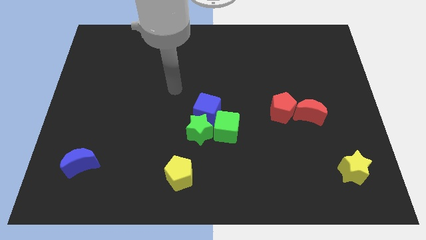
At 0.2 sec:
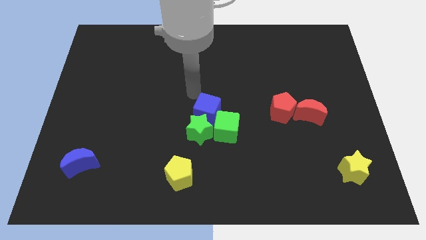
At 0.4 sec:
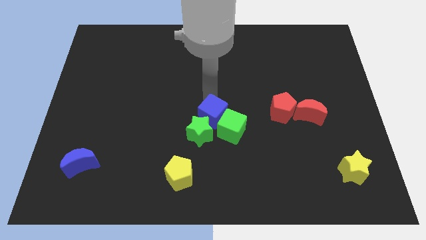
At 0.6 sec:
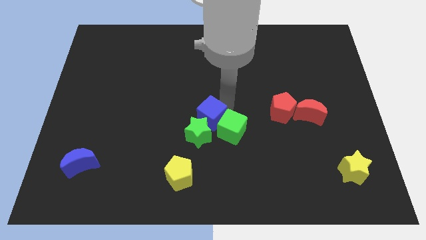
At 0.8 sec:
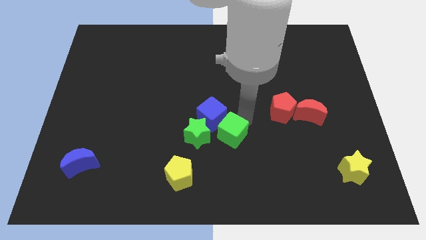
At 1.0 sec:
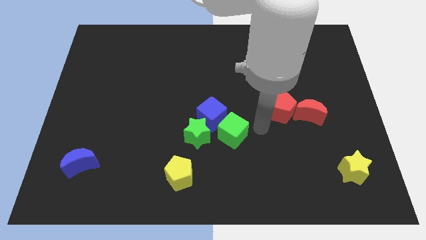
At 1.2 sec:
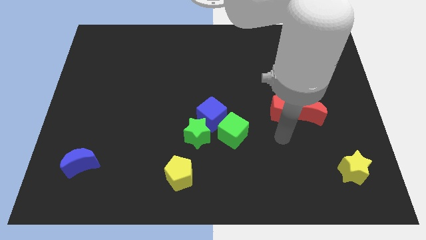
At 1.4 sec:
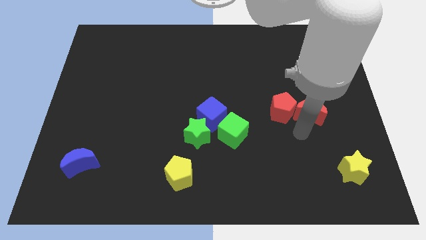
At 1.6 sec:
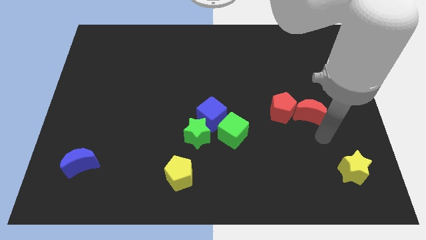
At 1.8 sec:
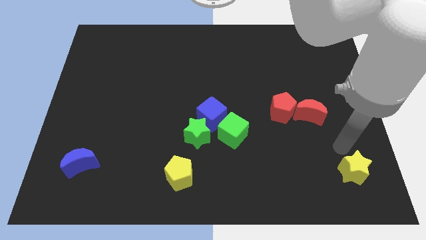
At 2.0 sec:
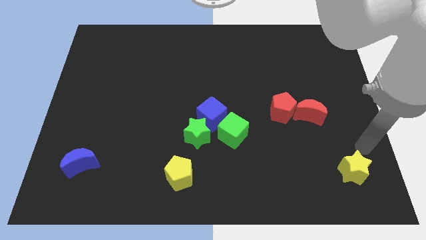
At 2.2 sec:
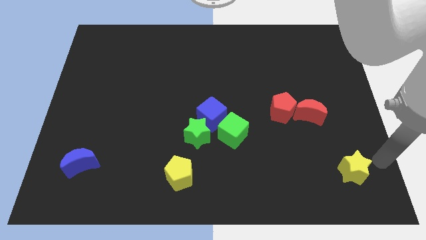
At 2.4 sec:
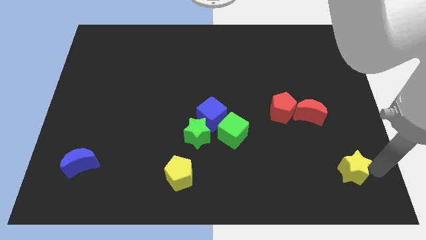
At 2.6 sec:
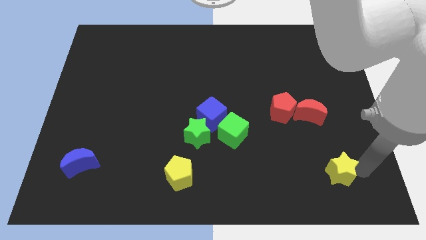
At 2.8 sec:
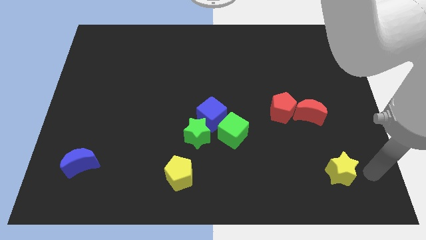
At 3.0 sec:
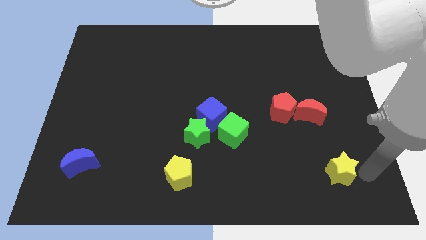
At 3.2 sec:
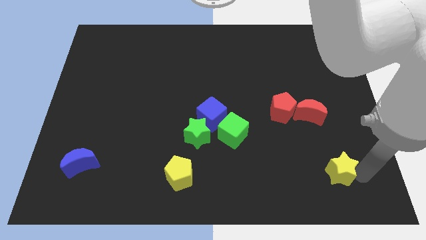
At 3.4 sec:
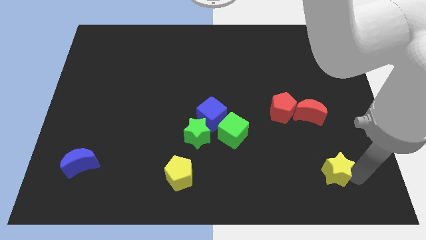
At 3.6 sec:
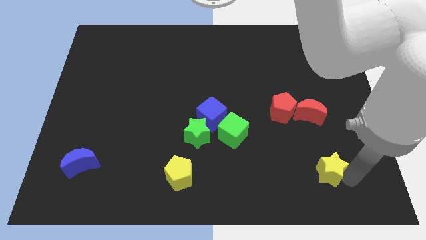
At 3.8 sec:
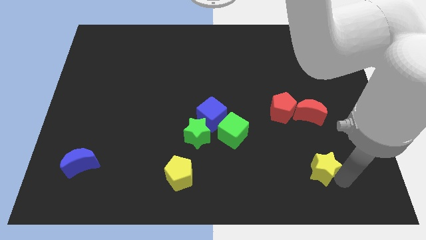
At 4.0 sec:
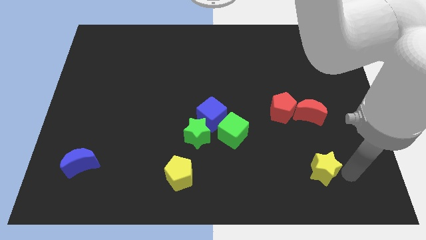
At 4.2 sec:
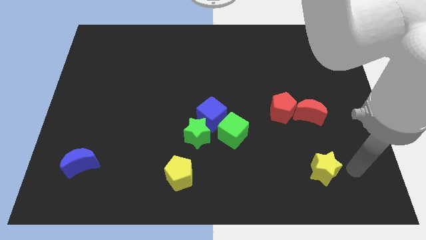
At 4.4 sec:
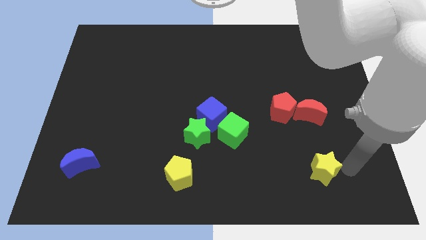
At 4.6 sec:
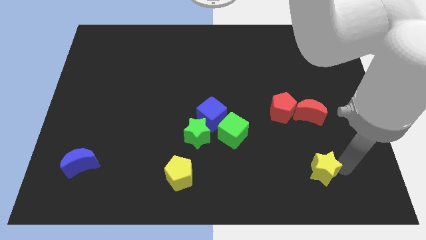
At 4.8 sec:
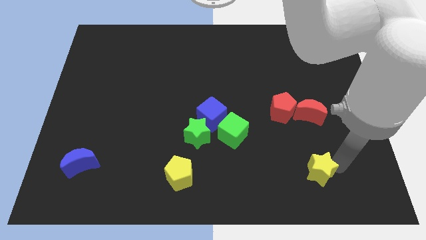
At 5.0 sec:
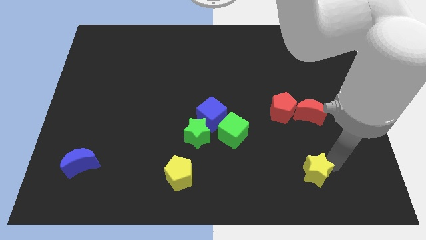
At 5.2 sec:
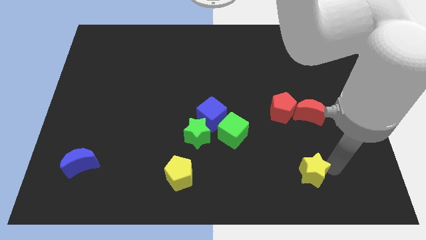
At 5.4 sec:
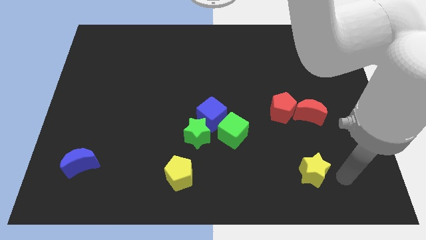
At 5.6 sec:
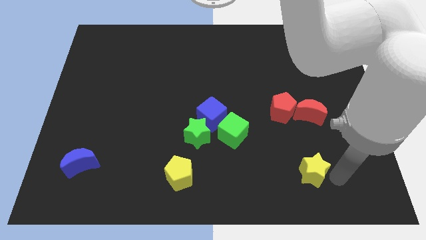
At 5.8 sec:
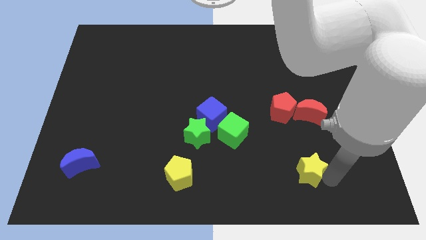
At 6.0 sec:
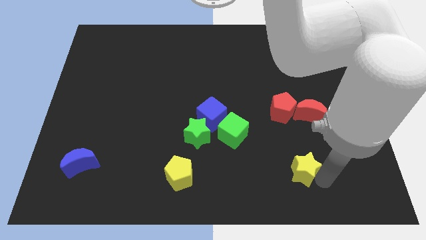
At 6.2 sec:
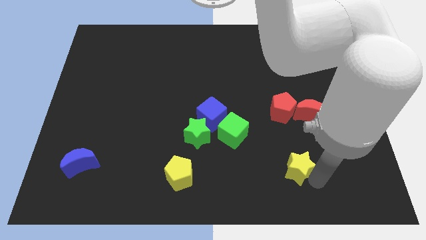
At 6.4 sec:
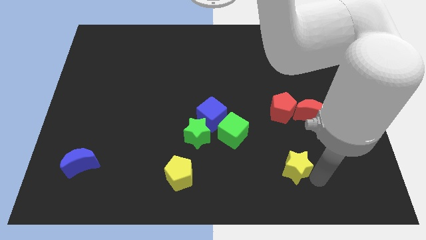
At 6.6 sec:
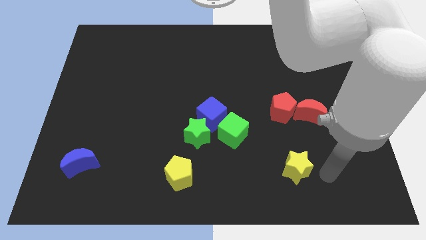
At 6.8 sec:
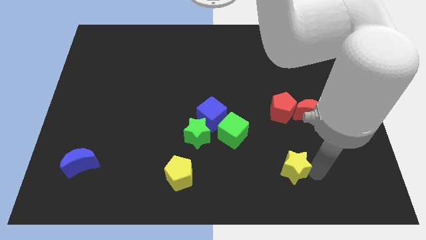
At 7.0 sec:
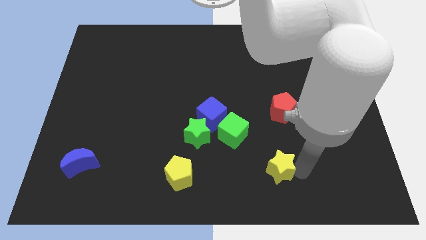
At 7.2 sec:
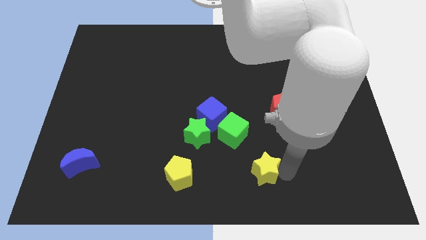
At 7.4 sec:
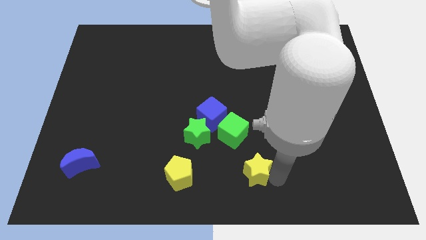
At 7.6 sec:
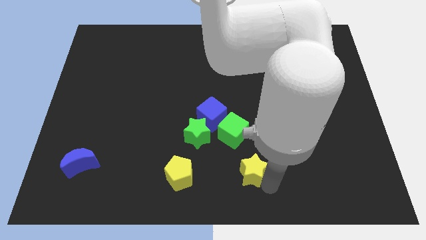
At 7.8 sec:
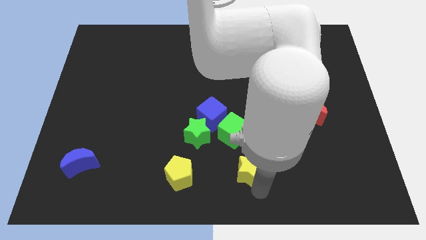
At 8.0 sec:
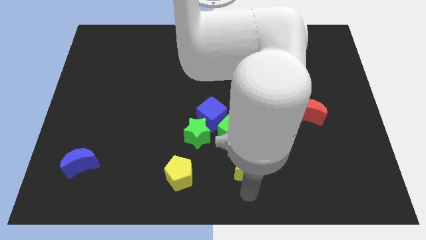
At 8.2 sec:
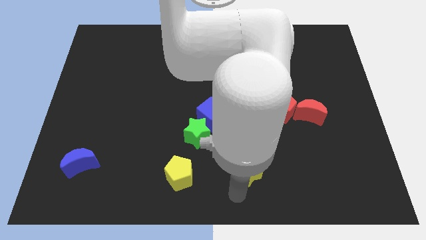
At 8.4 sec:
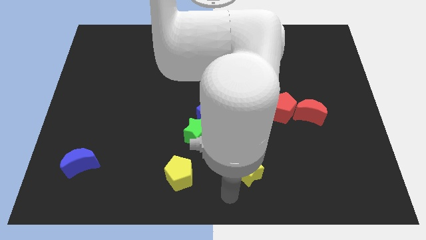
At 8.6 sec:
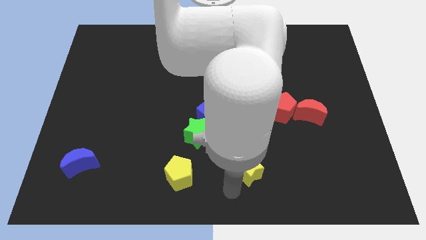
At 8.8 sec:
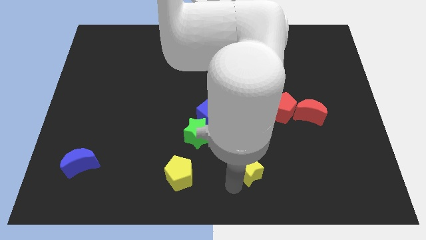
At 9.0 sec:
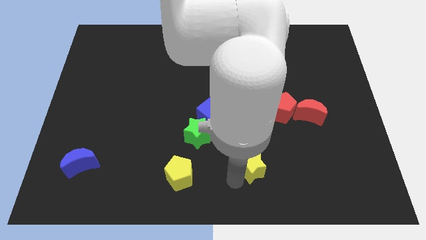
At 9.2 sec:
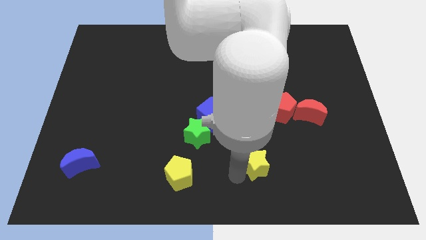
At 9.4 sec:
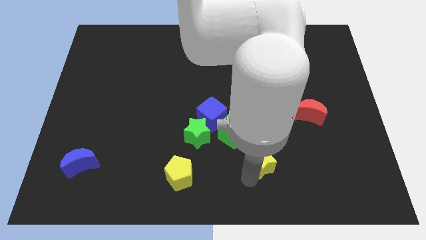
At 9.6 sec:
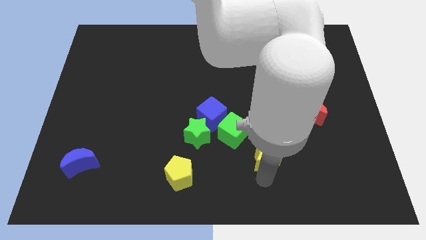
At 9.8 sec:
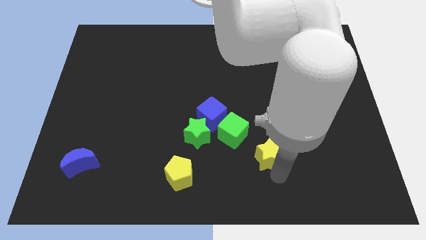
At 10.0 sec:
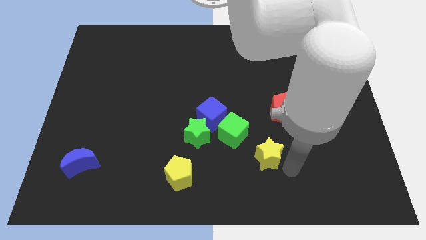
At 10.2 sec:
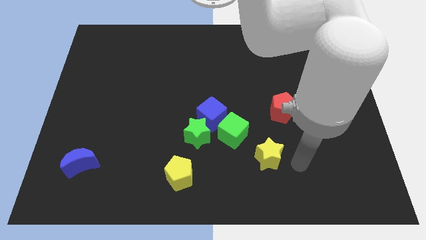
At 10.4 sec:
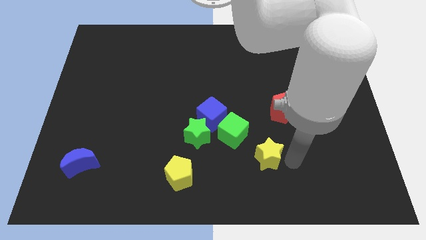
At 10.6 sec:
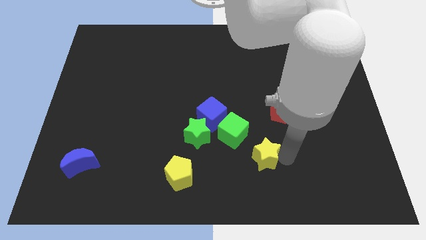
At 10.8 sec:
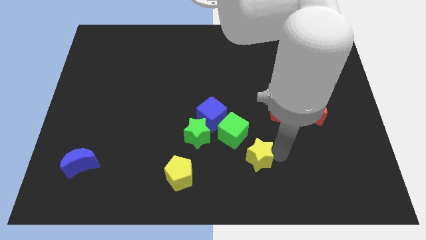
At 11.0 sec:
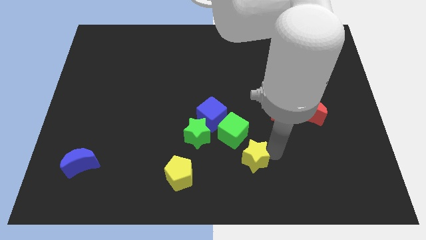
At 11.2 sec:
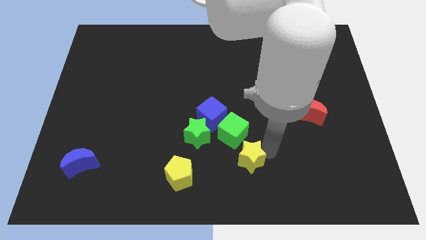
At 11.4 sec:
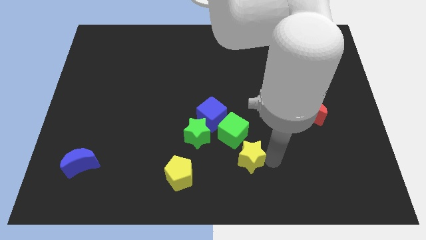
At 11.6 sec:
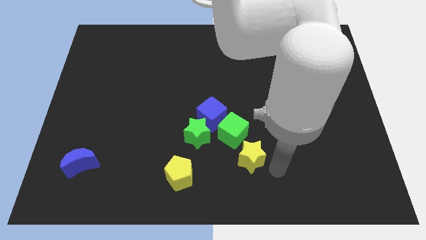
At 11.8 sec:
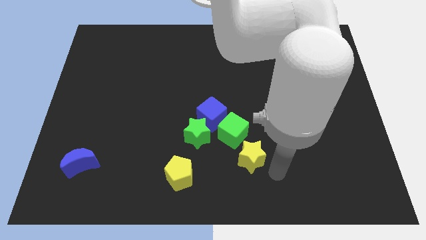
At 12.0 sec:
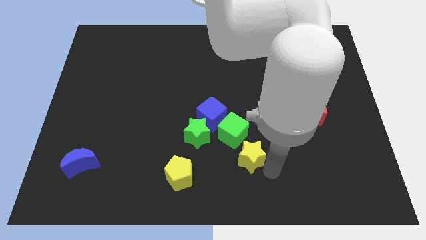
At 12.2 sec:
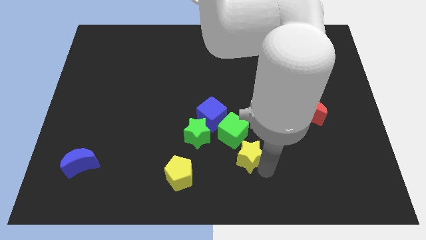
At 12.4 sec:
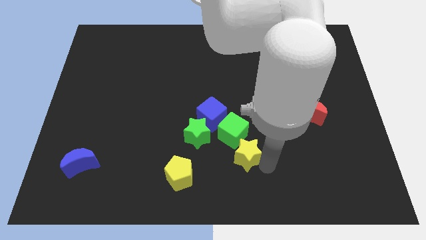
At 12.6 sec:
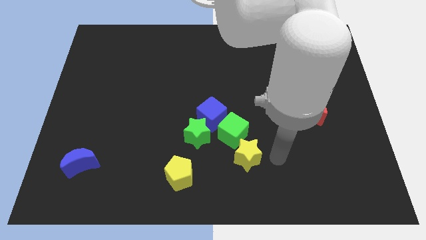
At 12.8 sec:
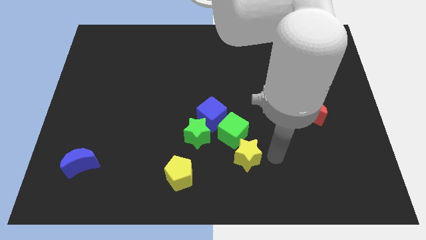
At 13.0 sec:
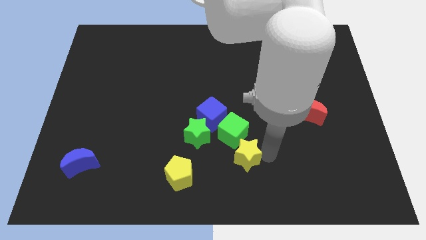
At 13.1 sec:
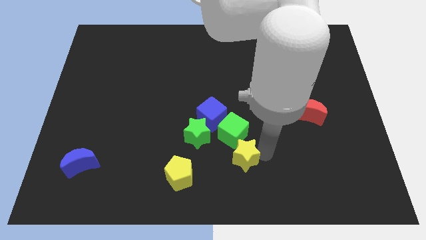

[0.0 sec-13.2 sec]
move the yellow star to the bottom right side of the green star

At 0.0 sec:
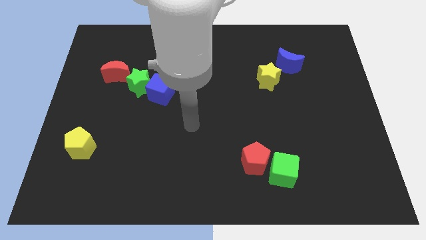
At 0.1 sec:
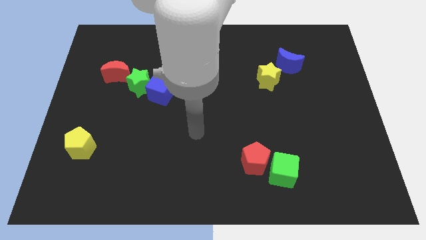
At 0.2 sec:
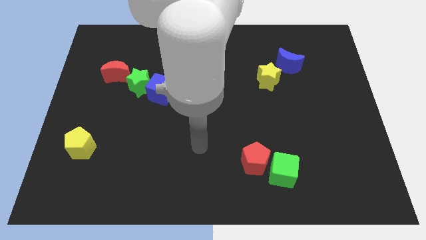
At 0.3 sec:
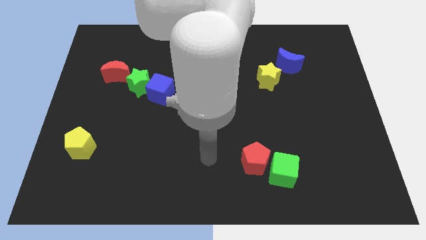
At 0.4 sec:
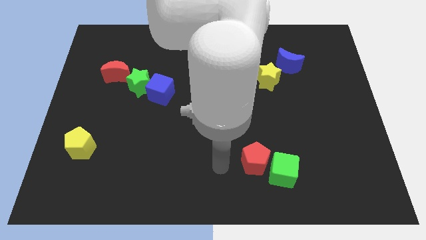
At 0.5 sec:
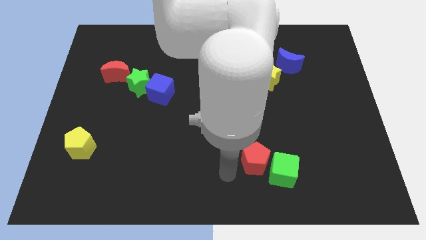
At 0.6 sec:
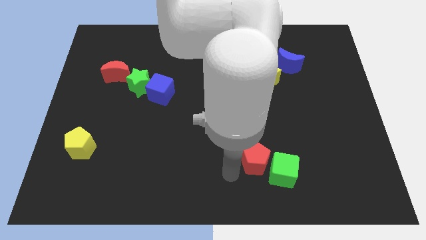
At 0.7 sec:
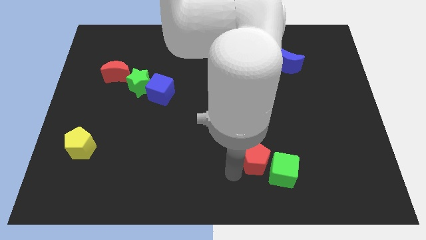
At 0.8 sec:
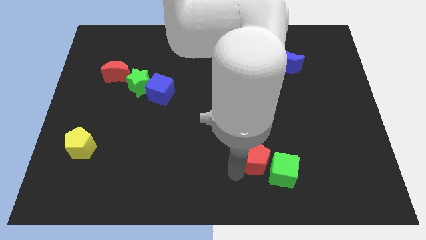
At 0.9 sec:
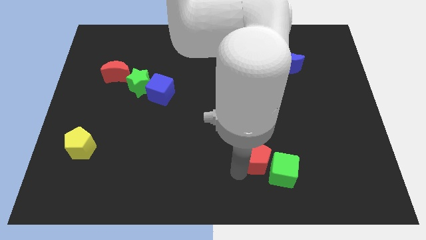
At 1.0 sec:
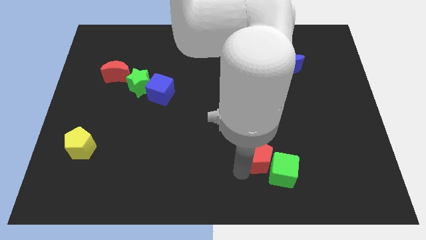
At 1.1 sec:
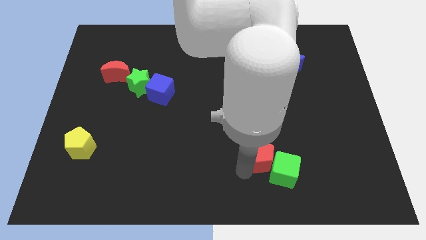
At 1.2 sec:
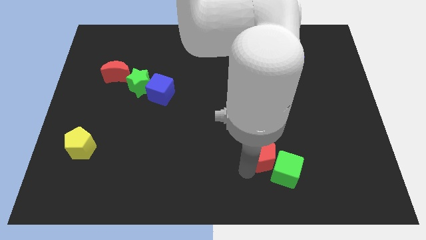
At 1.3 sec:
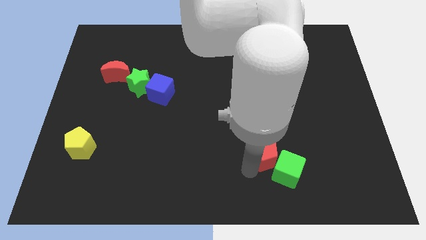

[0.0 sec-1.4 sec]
put the red pentagon to the top side of the green cube
